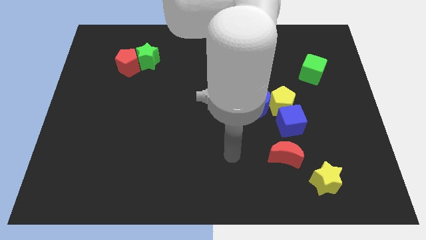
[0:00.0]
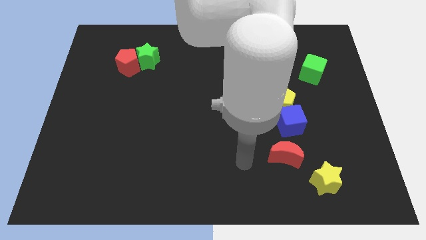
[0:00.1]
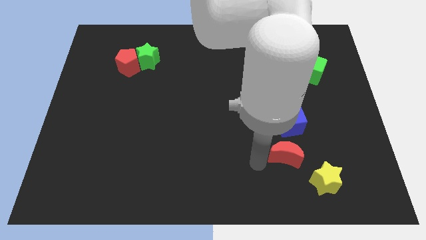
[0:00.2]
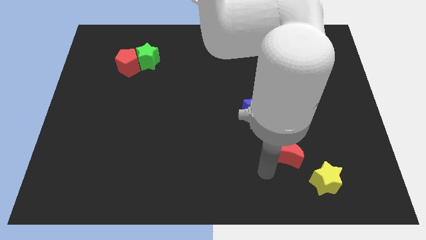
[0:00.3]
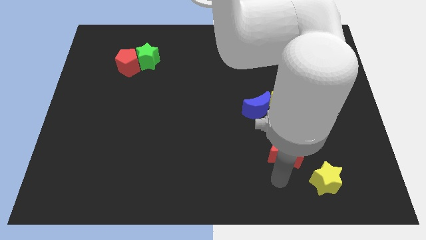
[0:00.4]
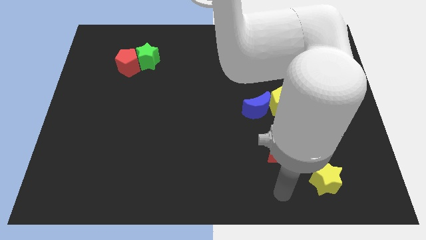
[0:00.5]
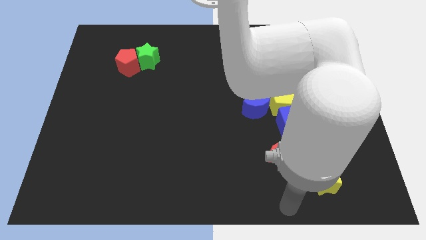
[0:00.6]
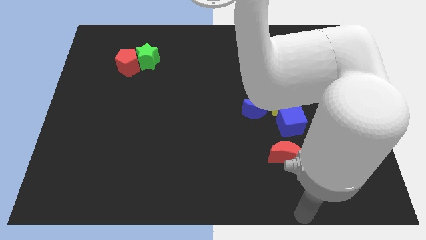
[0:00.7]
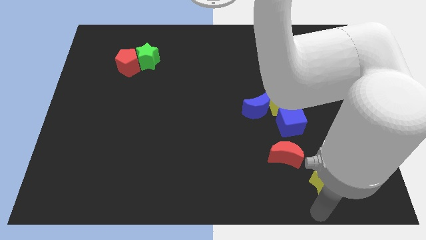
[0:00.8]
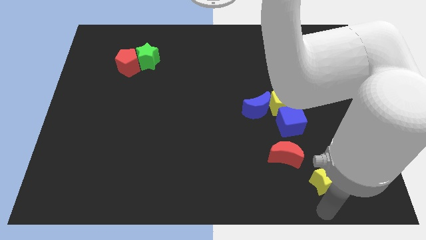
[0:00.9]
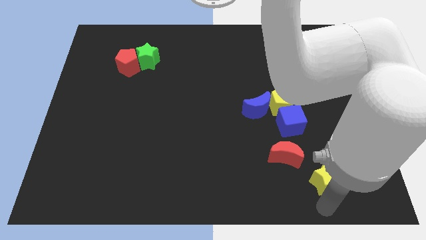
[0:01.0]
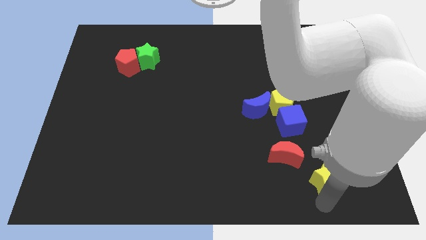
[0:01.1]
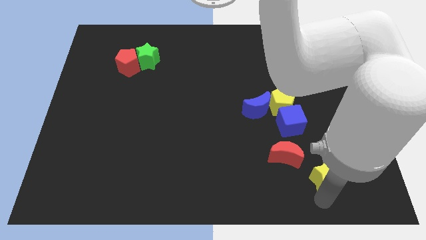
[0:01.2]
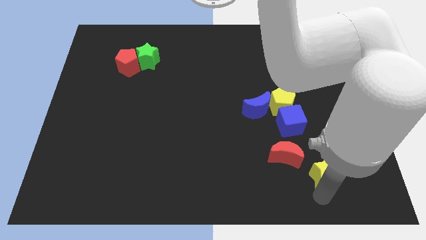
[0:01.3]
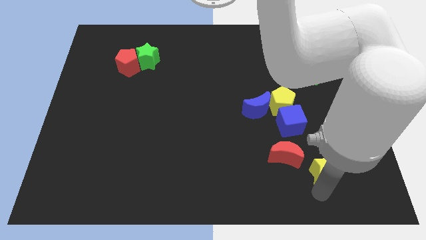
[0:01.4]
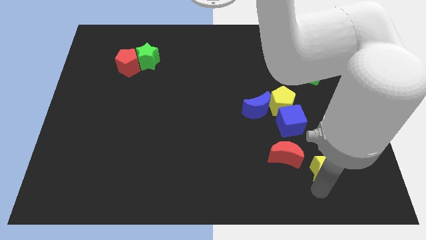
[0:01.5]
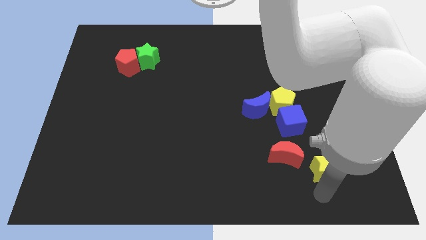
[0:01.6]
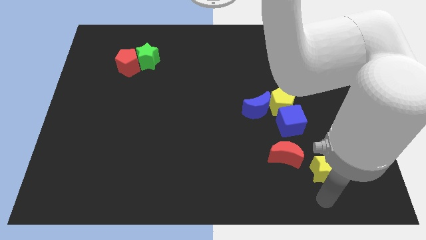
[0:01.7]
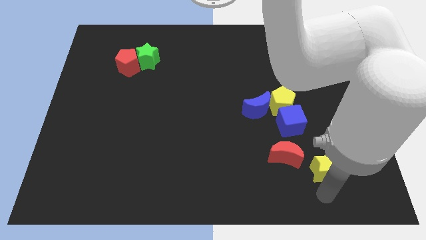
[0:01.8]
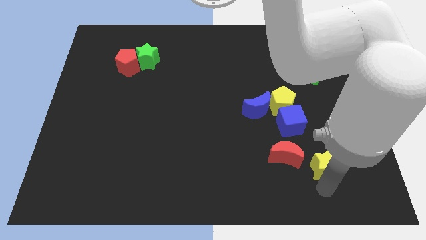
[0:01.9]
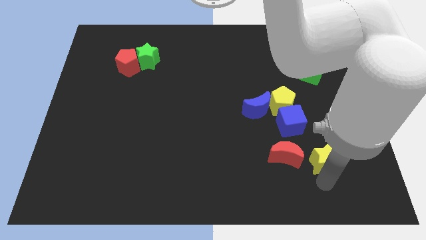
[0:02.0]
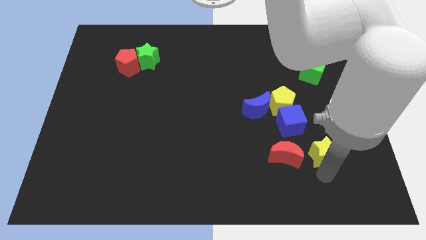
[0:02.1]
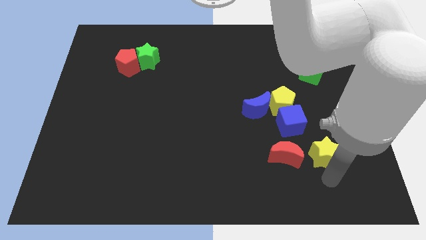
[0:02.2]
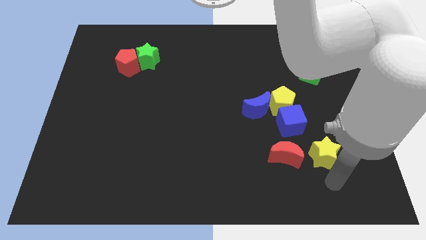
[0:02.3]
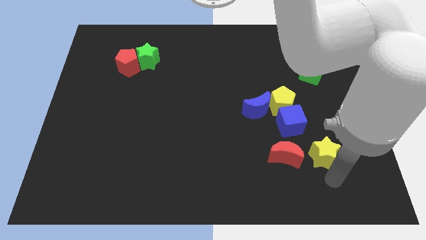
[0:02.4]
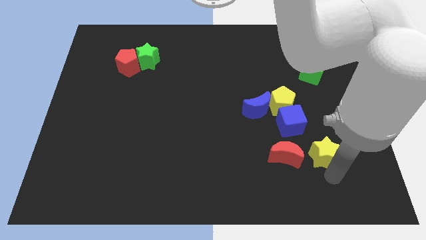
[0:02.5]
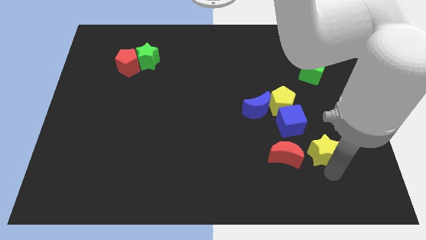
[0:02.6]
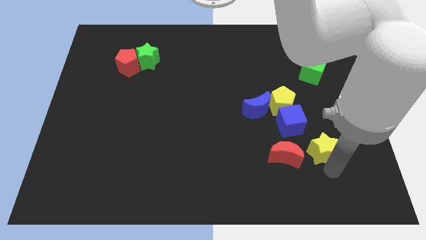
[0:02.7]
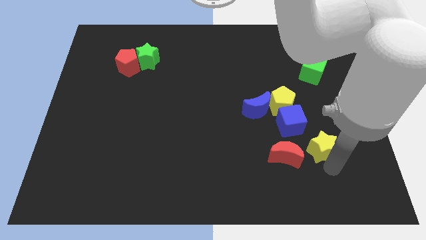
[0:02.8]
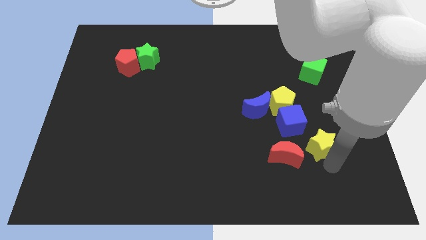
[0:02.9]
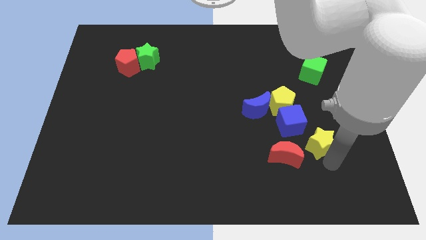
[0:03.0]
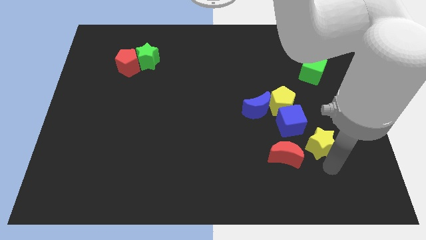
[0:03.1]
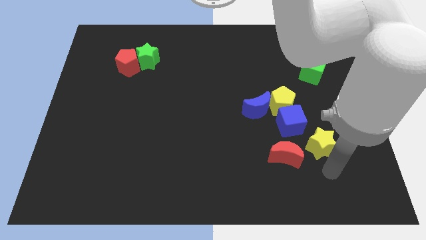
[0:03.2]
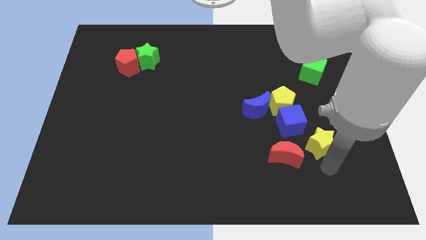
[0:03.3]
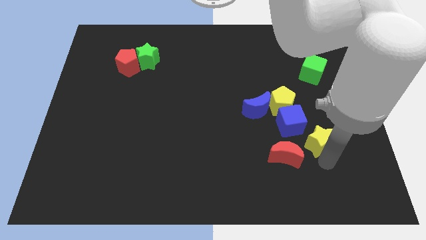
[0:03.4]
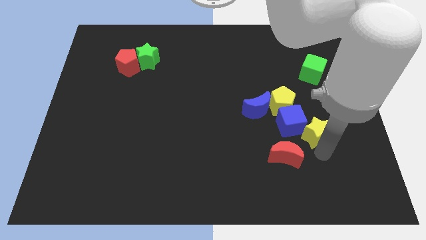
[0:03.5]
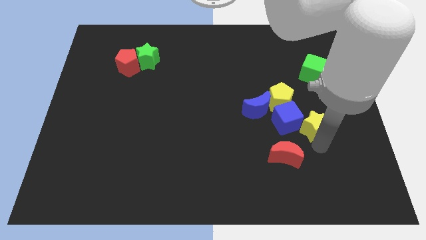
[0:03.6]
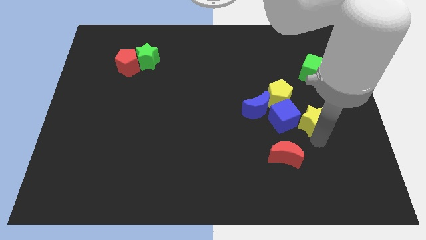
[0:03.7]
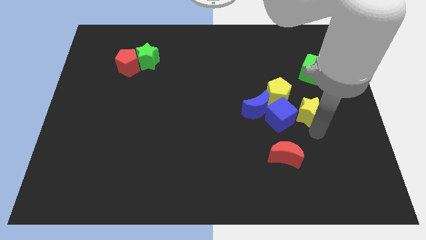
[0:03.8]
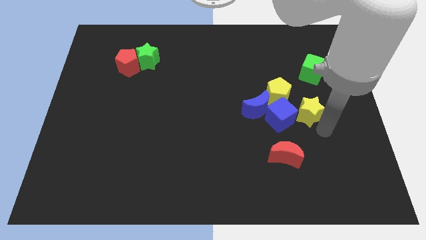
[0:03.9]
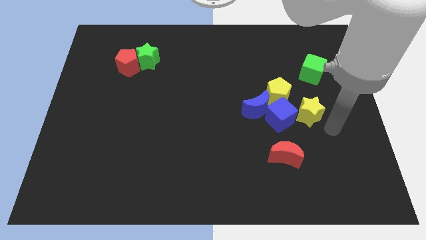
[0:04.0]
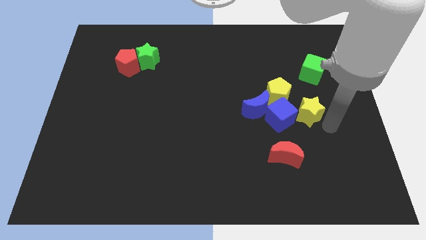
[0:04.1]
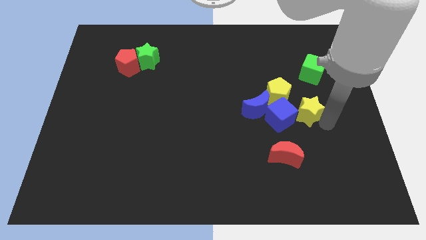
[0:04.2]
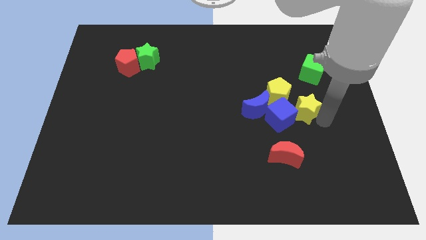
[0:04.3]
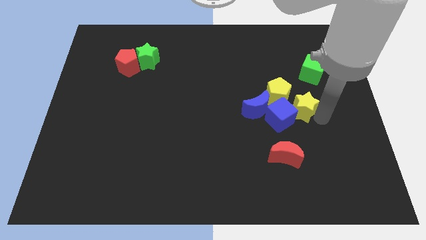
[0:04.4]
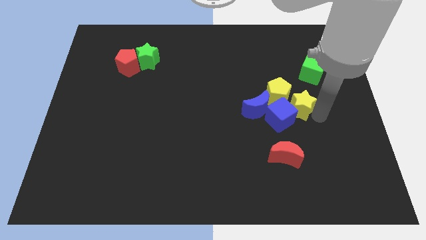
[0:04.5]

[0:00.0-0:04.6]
slide the yellow star towards the yellow pentagon

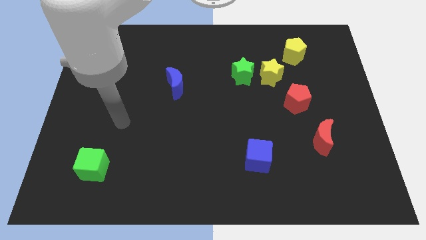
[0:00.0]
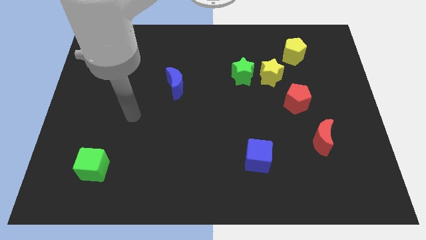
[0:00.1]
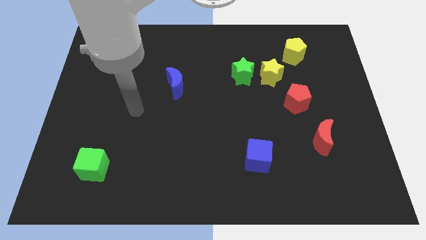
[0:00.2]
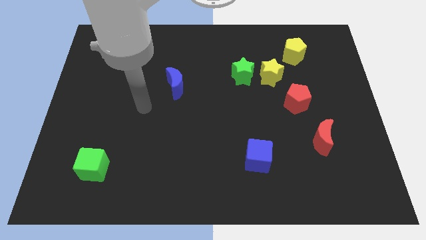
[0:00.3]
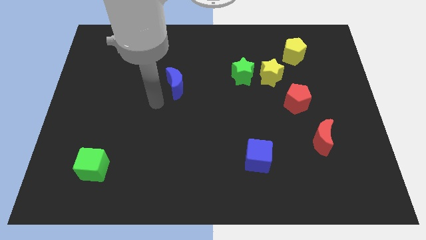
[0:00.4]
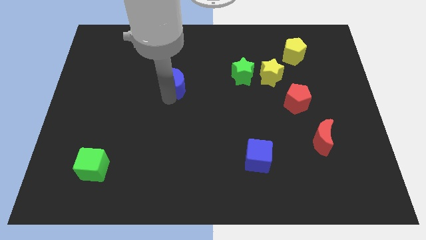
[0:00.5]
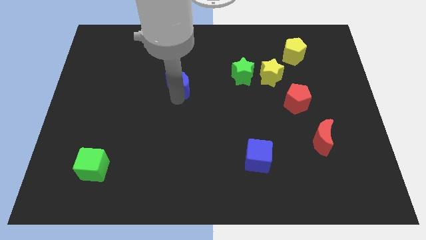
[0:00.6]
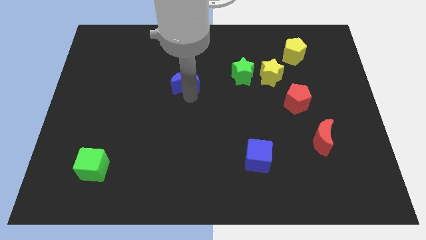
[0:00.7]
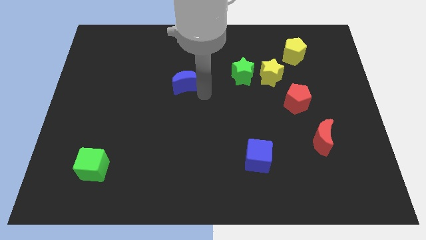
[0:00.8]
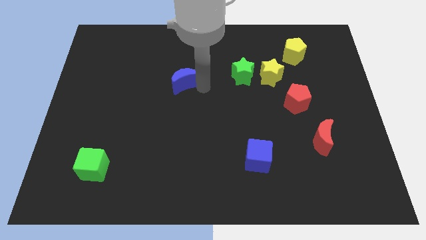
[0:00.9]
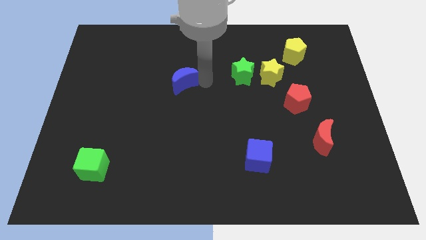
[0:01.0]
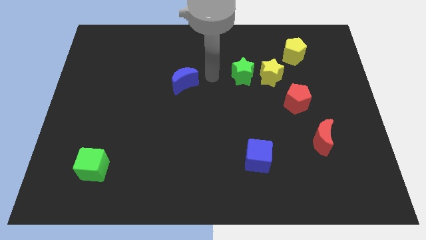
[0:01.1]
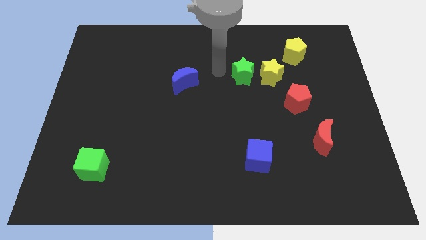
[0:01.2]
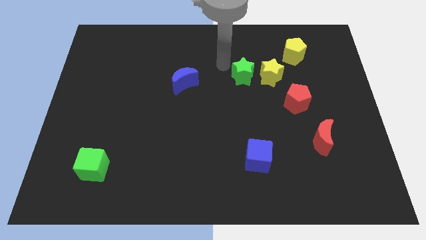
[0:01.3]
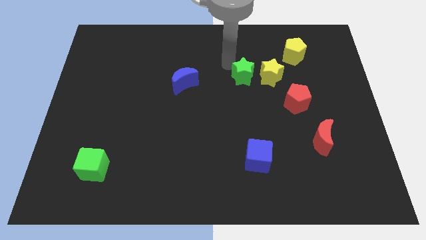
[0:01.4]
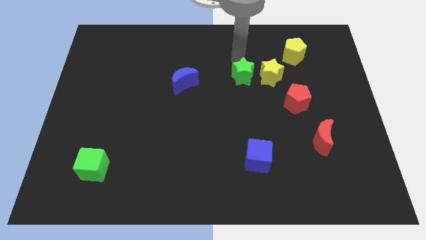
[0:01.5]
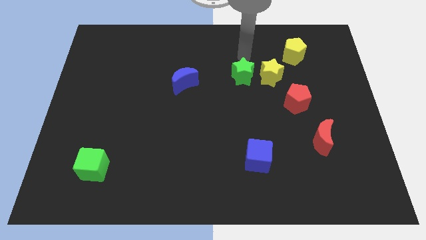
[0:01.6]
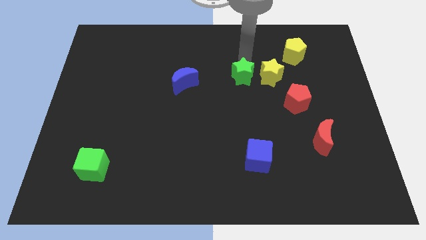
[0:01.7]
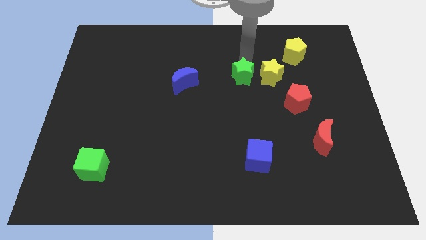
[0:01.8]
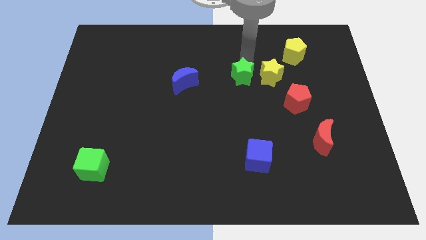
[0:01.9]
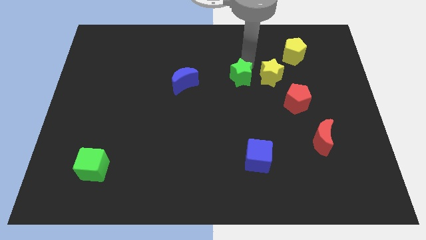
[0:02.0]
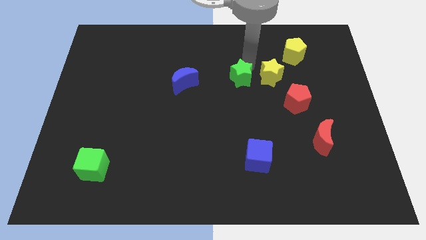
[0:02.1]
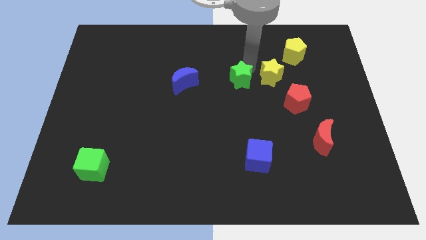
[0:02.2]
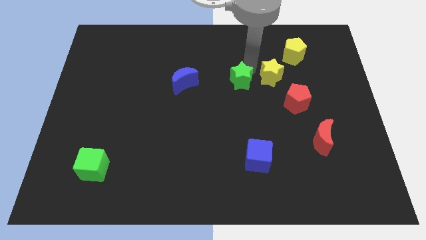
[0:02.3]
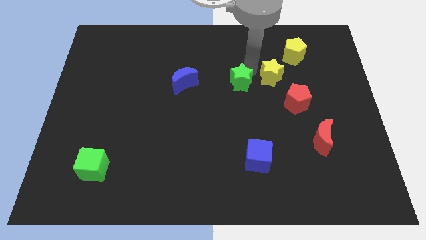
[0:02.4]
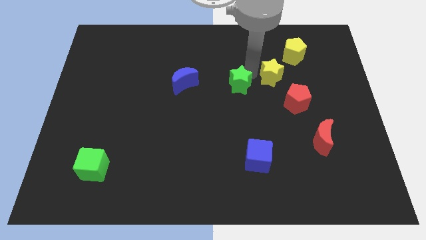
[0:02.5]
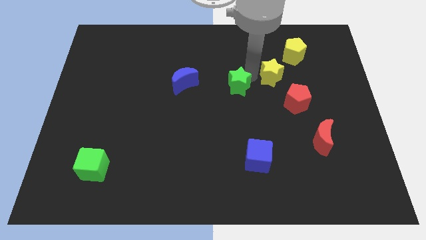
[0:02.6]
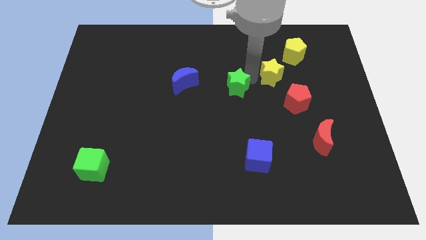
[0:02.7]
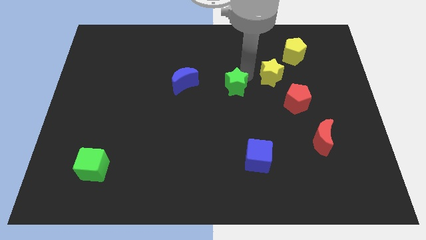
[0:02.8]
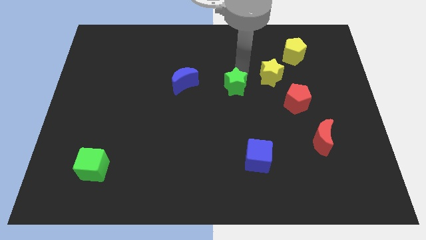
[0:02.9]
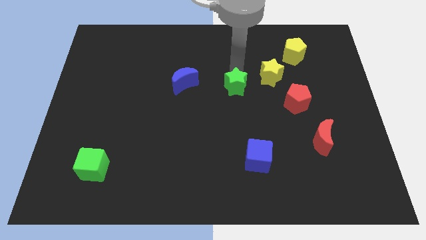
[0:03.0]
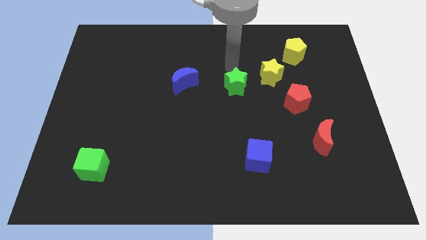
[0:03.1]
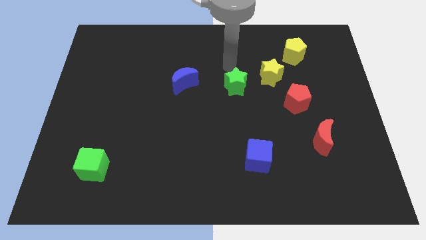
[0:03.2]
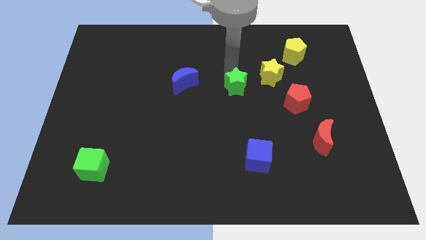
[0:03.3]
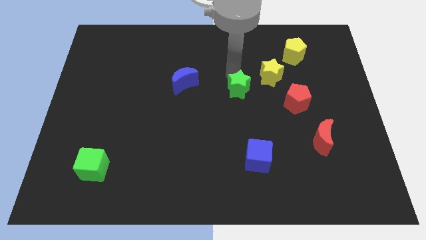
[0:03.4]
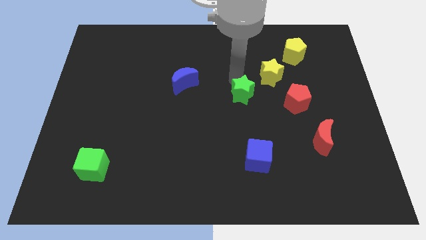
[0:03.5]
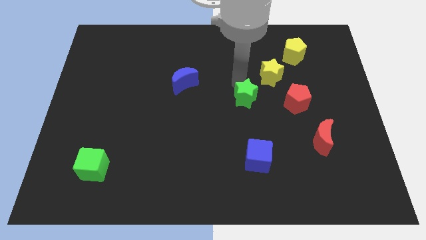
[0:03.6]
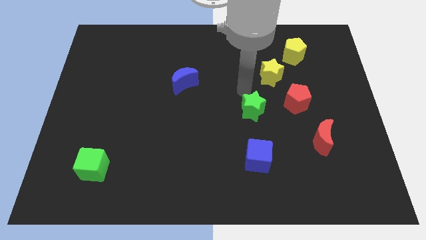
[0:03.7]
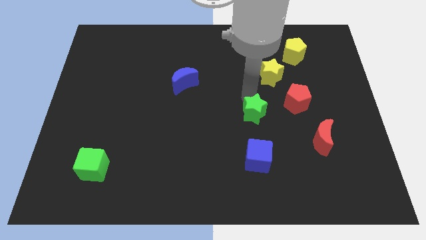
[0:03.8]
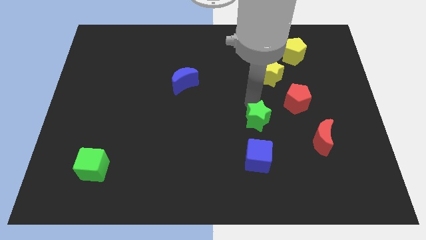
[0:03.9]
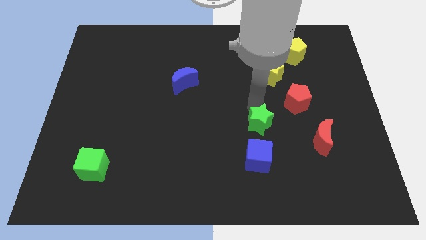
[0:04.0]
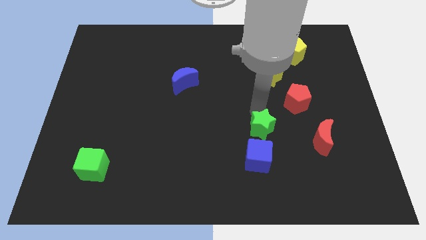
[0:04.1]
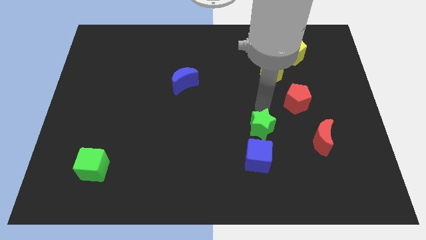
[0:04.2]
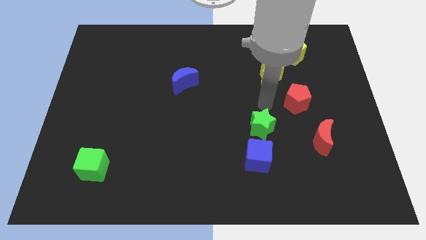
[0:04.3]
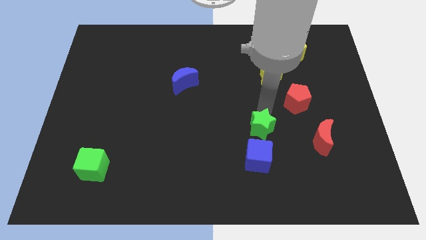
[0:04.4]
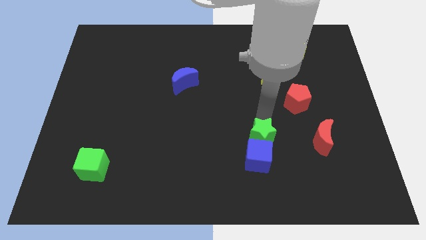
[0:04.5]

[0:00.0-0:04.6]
slide the green star next to the blue cube
